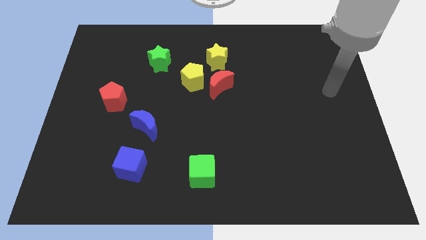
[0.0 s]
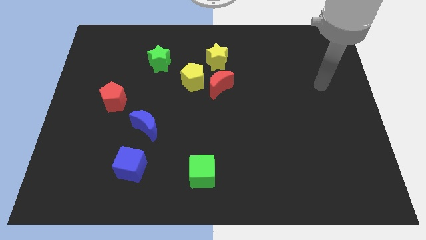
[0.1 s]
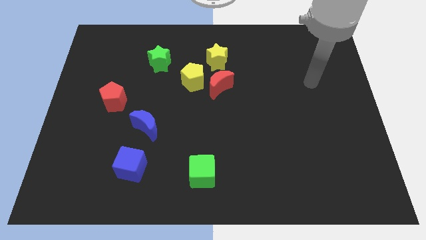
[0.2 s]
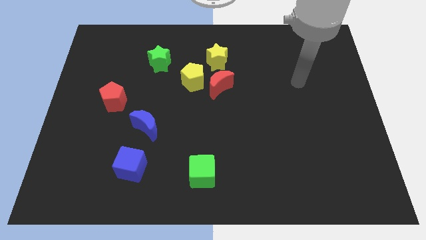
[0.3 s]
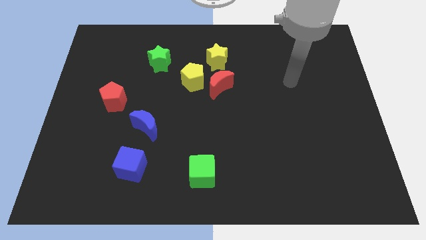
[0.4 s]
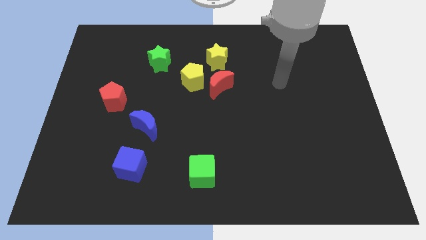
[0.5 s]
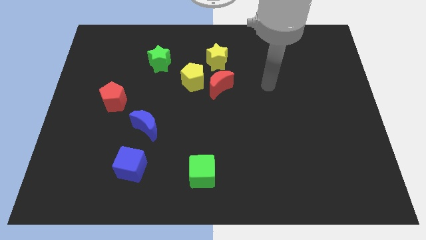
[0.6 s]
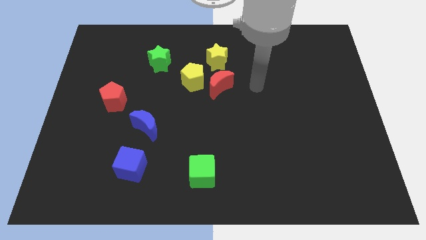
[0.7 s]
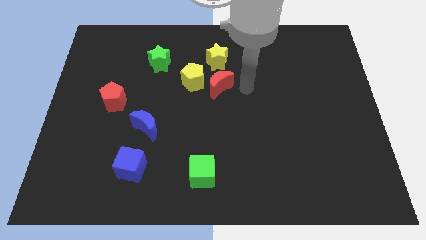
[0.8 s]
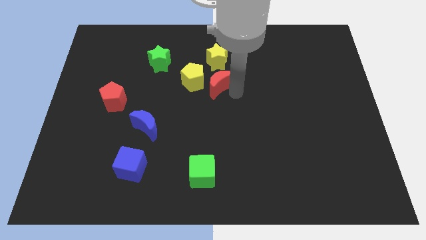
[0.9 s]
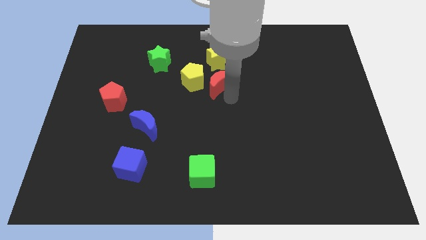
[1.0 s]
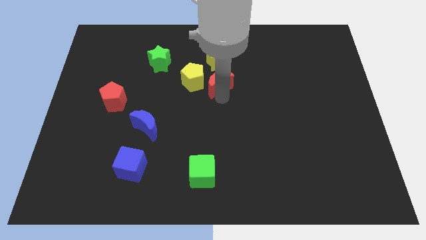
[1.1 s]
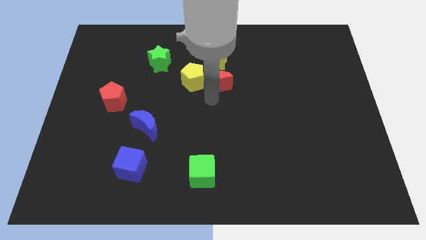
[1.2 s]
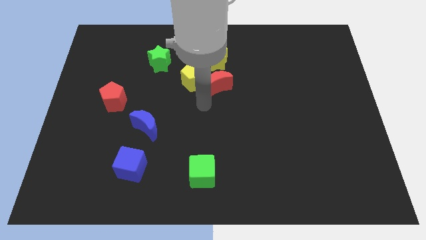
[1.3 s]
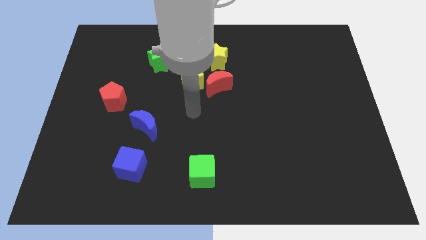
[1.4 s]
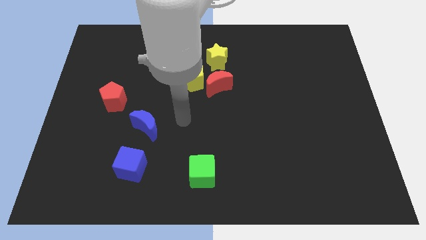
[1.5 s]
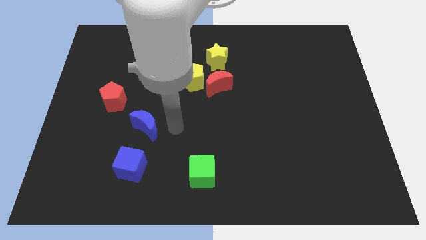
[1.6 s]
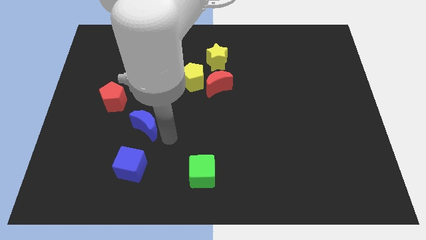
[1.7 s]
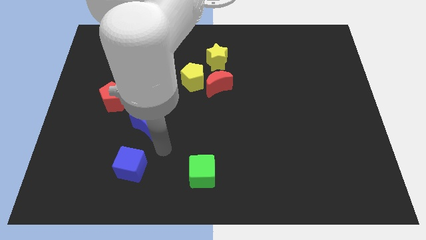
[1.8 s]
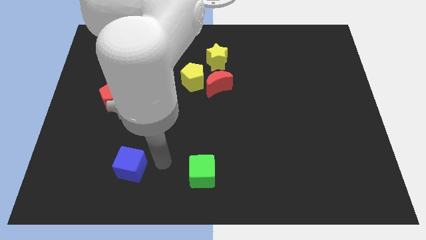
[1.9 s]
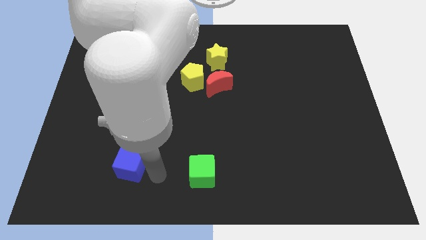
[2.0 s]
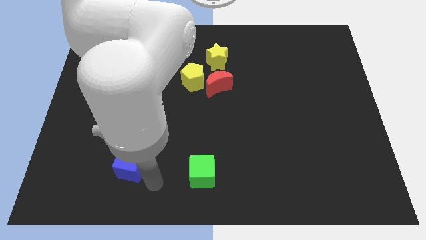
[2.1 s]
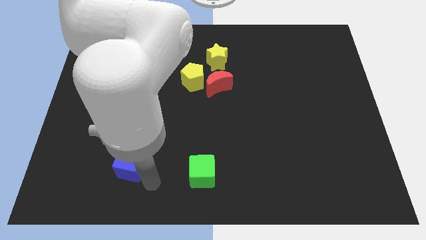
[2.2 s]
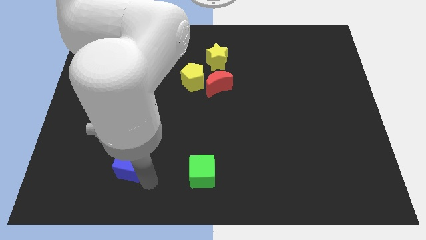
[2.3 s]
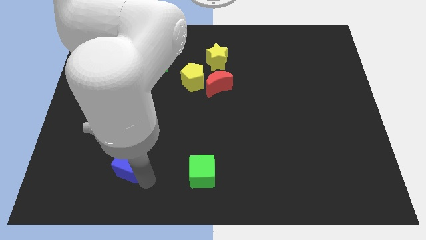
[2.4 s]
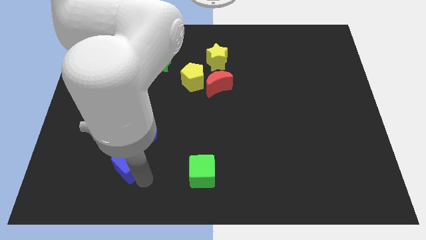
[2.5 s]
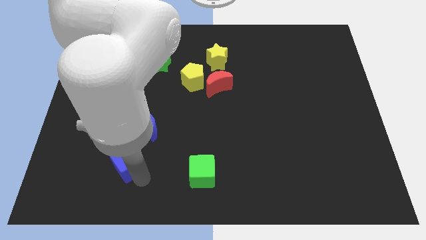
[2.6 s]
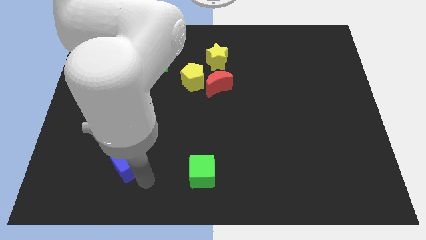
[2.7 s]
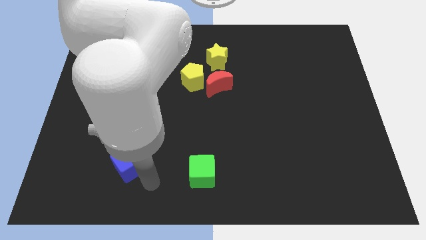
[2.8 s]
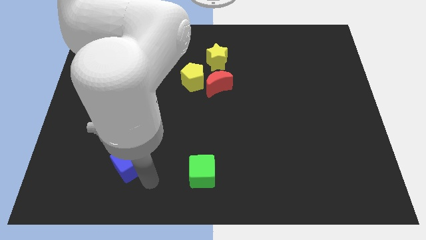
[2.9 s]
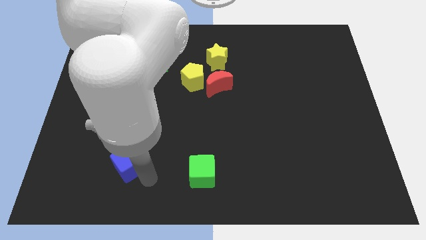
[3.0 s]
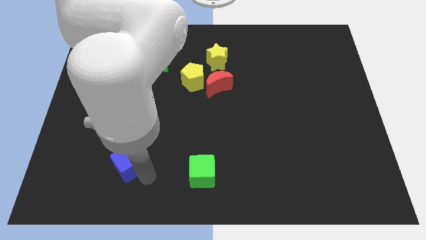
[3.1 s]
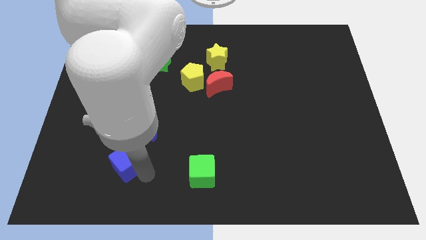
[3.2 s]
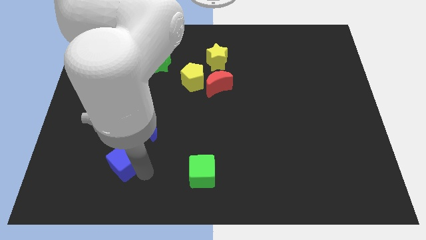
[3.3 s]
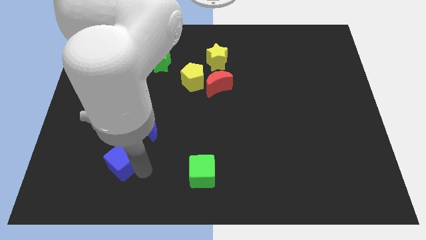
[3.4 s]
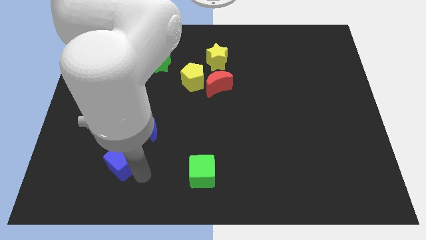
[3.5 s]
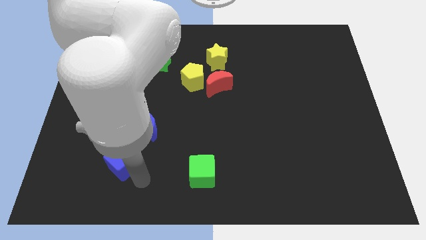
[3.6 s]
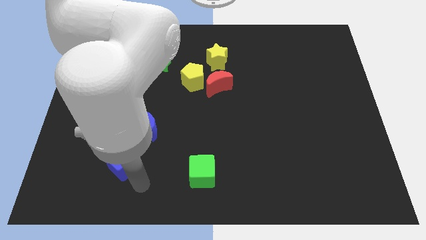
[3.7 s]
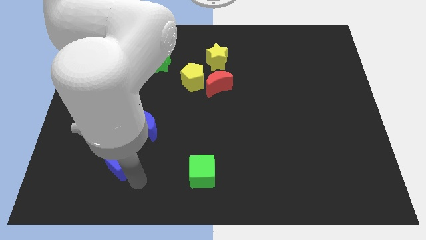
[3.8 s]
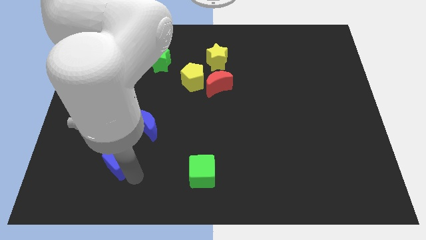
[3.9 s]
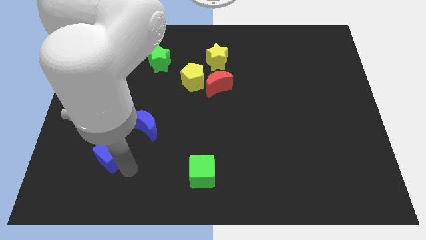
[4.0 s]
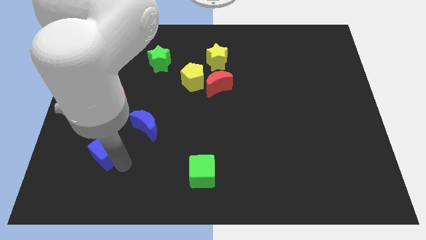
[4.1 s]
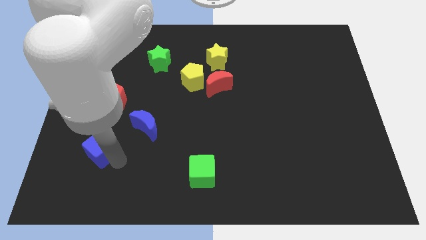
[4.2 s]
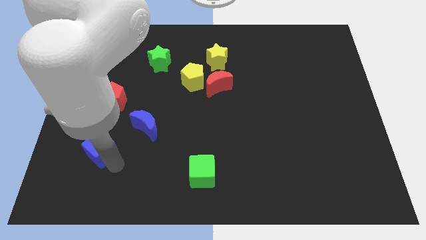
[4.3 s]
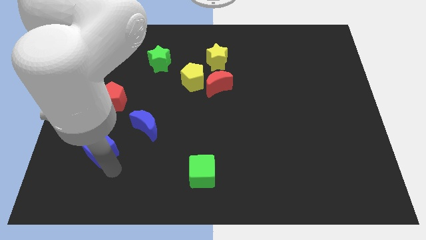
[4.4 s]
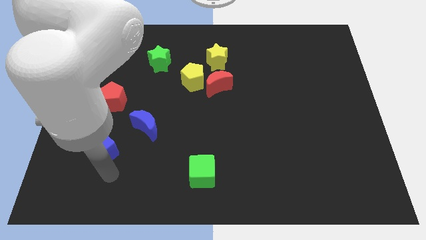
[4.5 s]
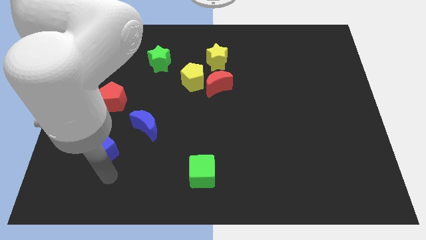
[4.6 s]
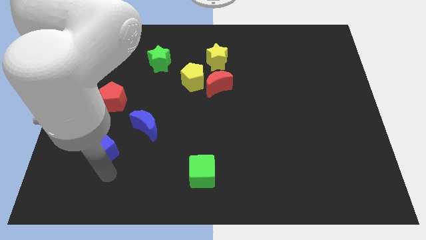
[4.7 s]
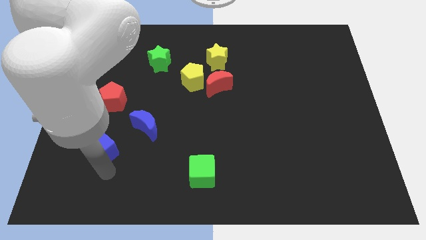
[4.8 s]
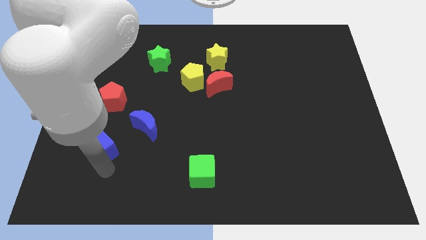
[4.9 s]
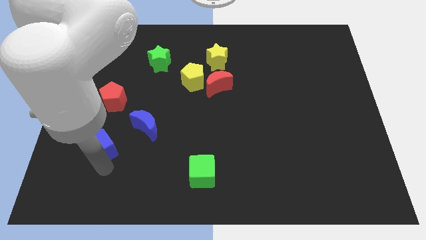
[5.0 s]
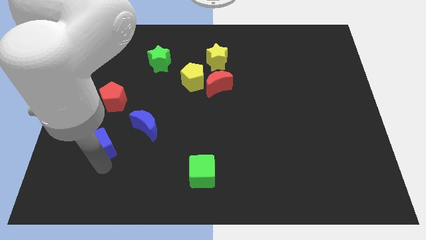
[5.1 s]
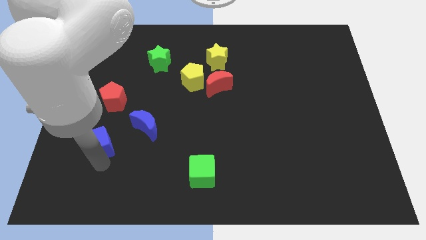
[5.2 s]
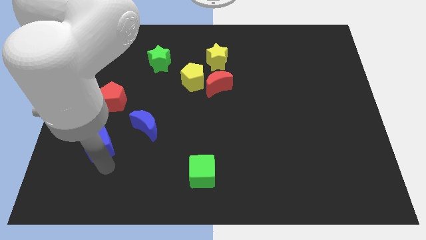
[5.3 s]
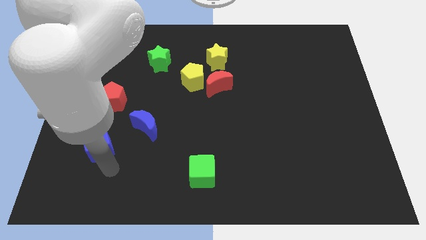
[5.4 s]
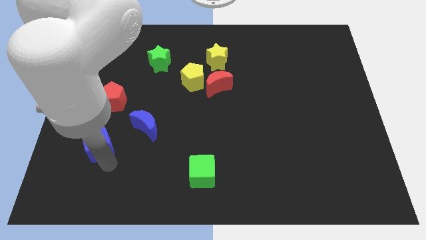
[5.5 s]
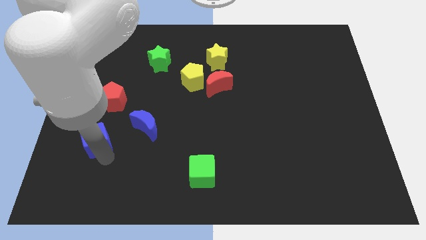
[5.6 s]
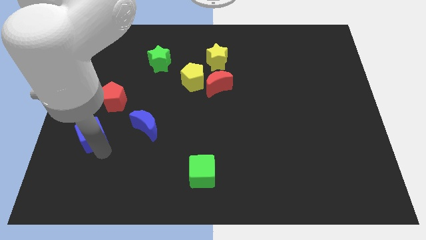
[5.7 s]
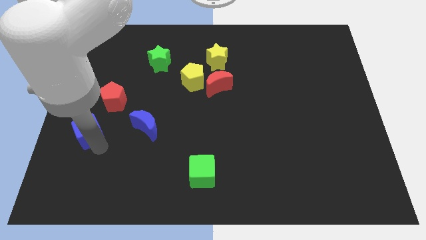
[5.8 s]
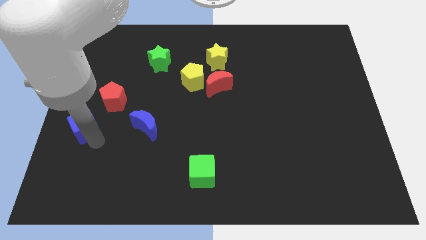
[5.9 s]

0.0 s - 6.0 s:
push the blue cube to the center left

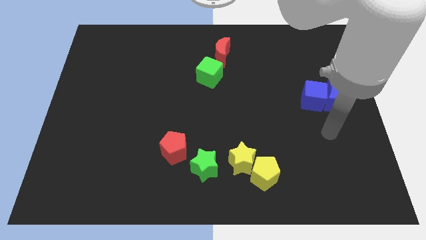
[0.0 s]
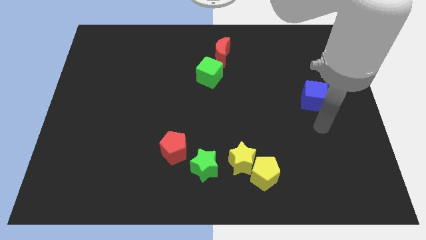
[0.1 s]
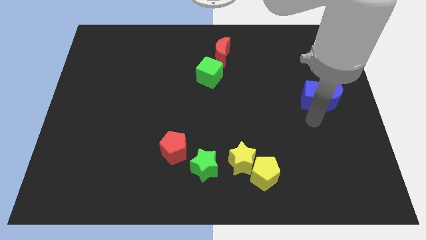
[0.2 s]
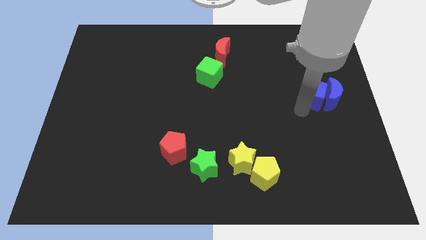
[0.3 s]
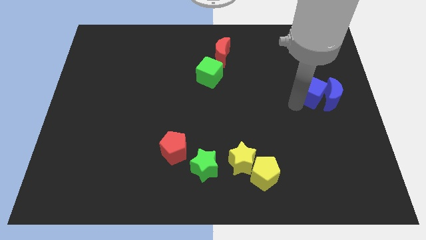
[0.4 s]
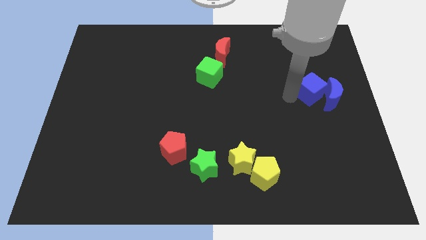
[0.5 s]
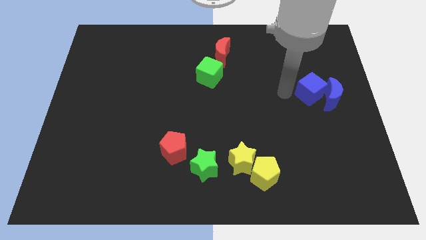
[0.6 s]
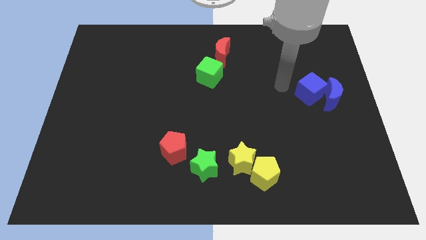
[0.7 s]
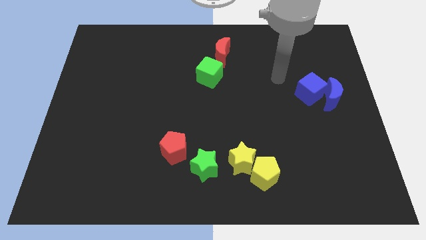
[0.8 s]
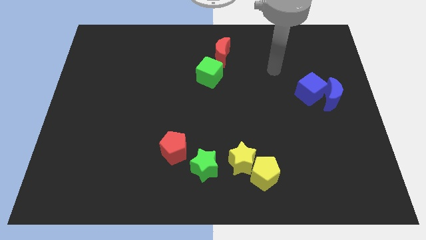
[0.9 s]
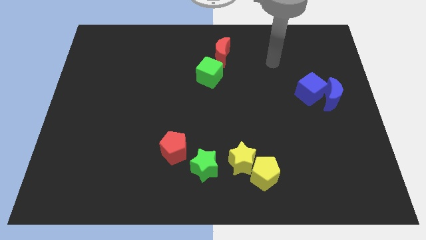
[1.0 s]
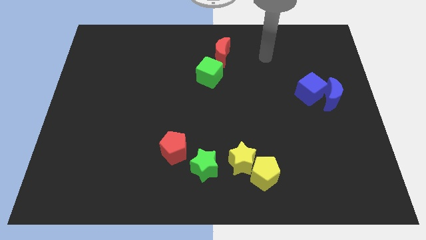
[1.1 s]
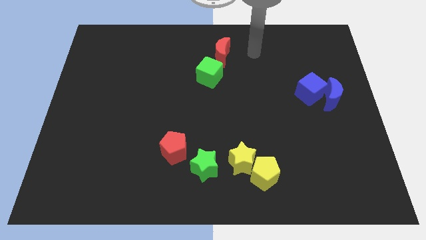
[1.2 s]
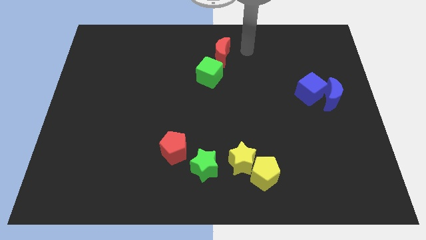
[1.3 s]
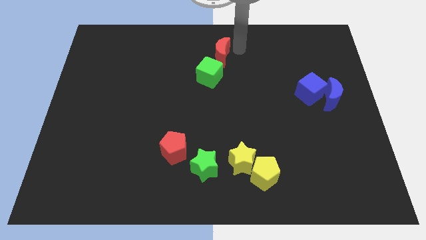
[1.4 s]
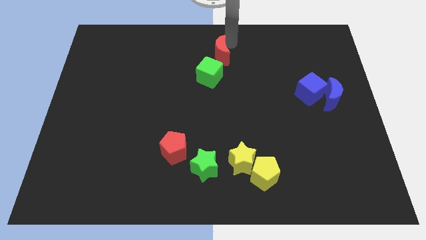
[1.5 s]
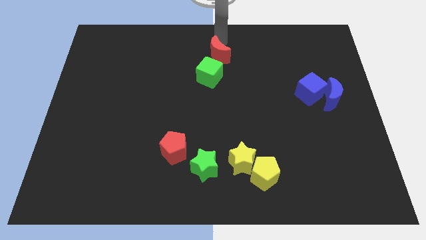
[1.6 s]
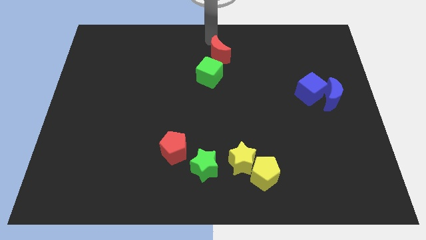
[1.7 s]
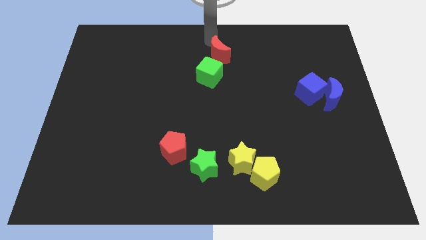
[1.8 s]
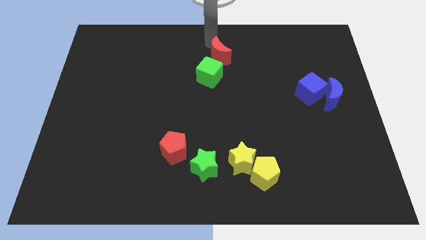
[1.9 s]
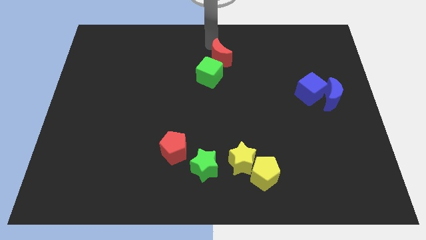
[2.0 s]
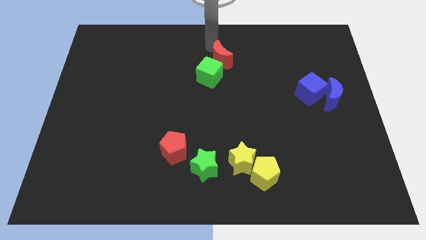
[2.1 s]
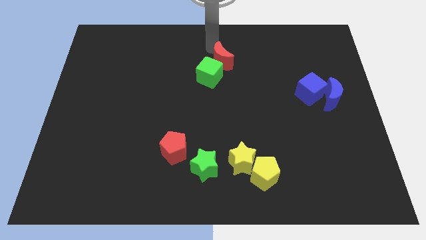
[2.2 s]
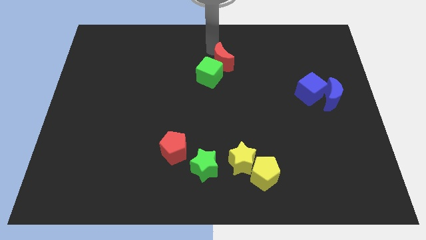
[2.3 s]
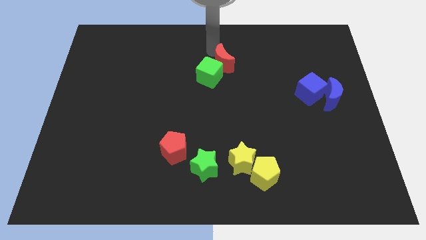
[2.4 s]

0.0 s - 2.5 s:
slide the red moon to the middle
